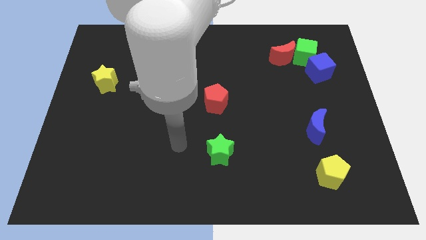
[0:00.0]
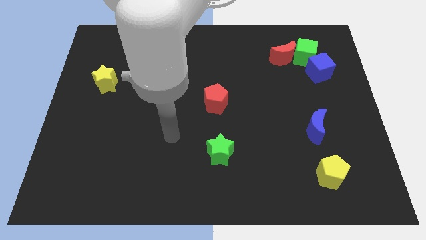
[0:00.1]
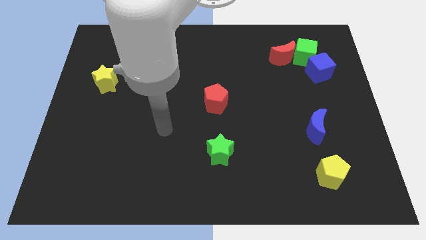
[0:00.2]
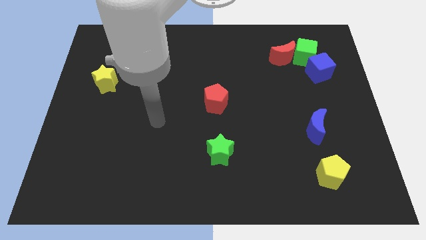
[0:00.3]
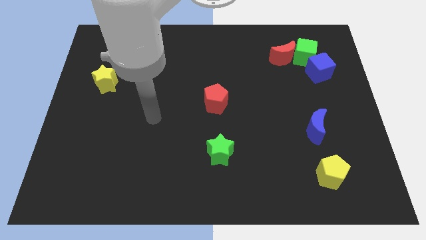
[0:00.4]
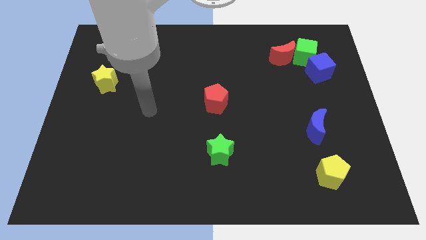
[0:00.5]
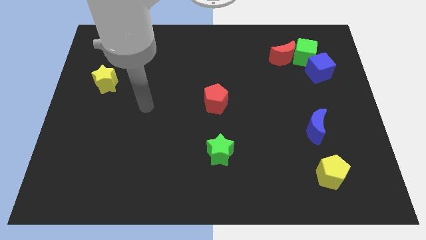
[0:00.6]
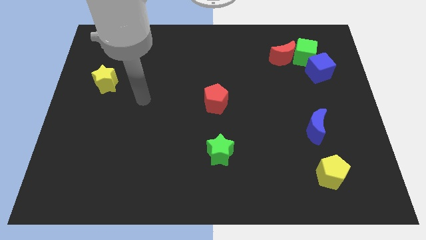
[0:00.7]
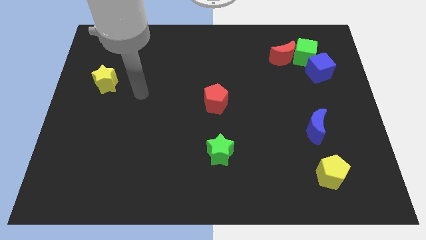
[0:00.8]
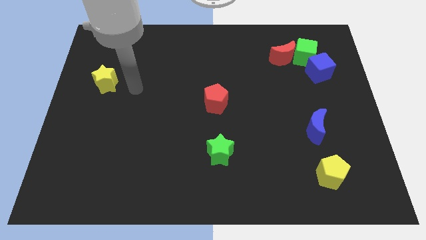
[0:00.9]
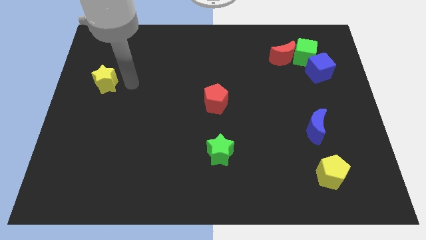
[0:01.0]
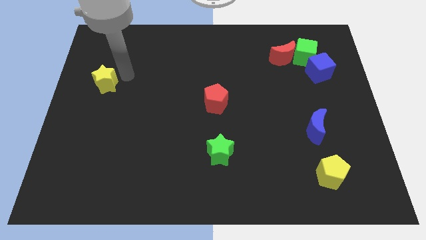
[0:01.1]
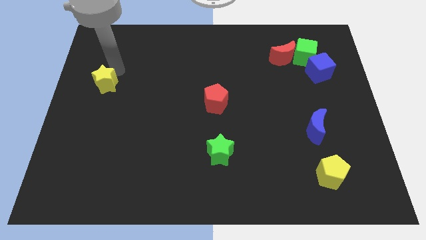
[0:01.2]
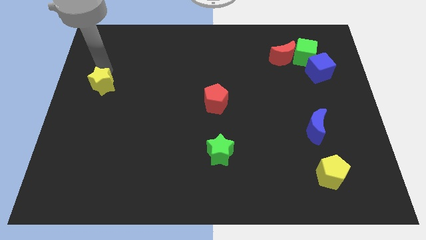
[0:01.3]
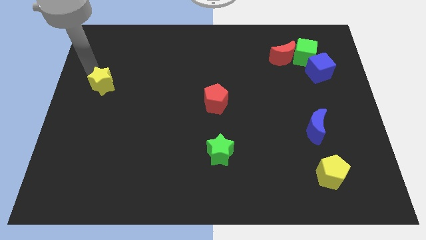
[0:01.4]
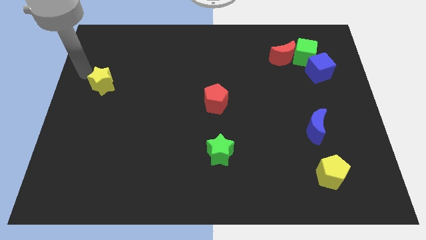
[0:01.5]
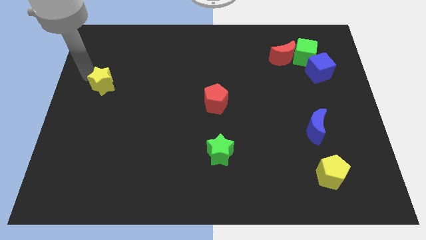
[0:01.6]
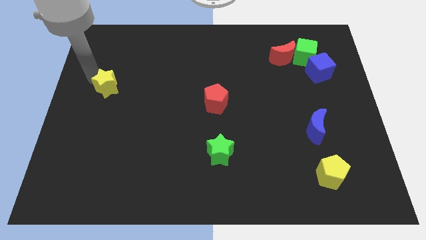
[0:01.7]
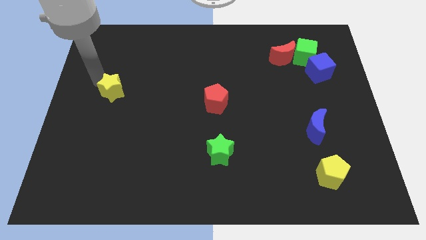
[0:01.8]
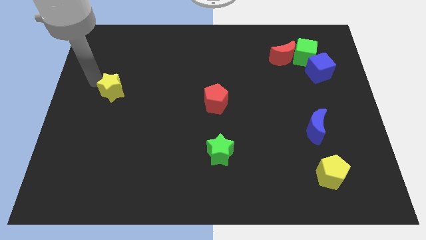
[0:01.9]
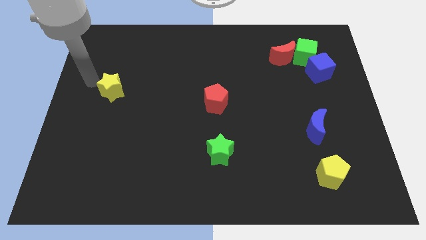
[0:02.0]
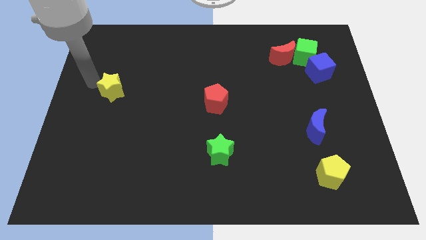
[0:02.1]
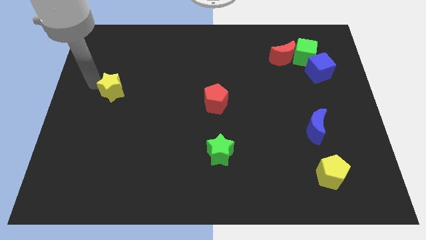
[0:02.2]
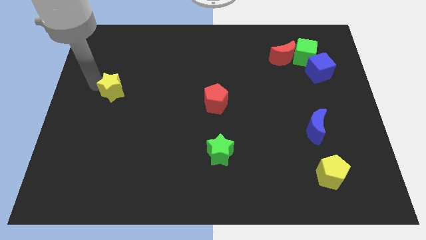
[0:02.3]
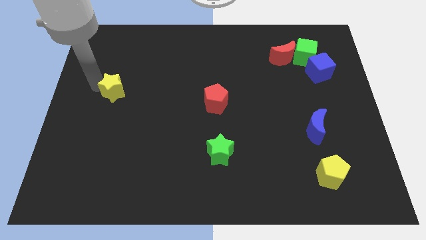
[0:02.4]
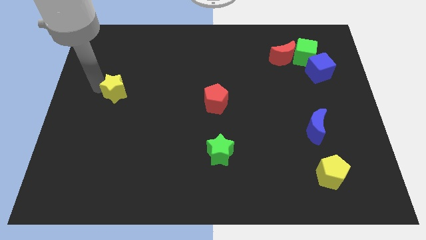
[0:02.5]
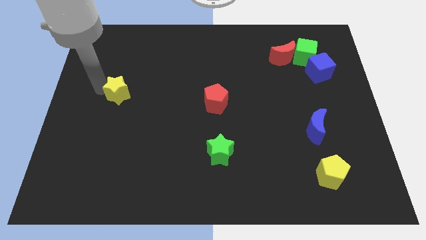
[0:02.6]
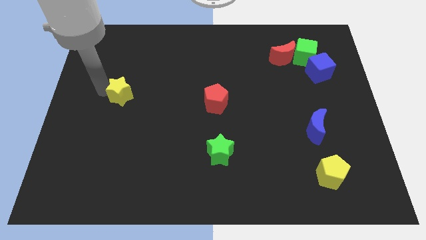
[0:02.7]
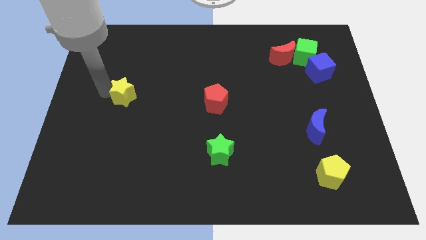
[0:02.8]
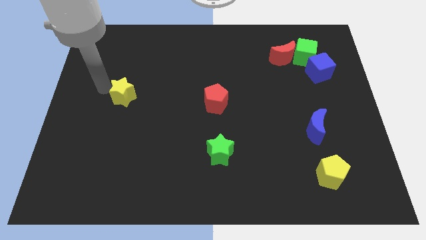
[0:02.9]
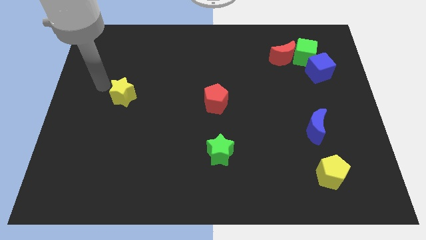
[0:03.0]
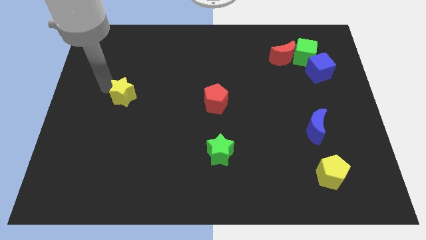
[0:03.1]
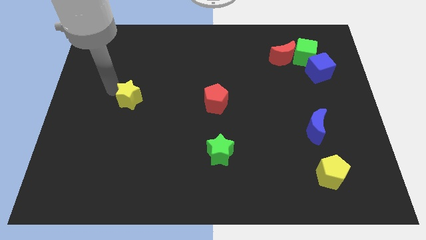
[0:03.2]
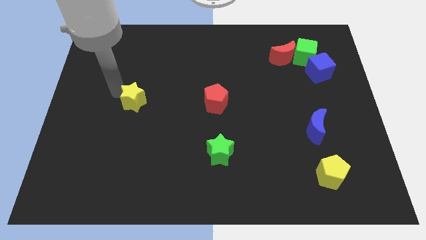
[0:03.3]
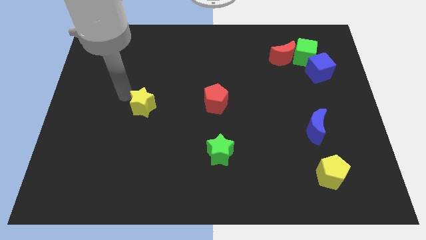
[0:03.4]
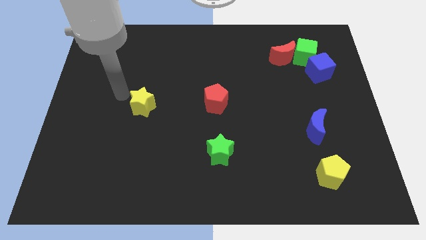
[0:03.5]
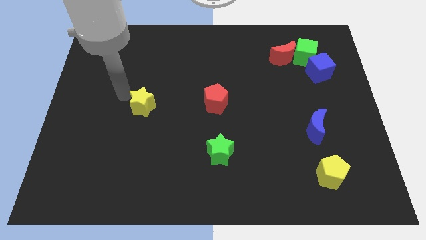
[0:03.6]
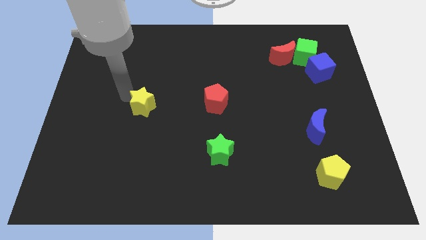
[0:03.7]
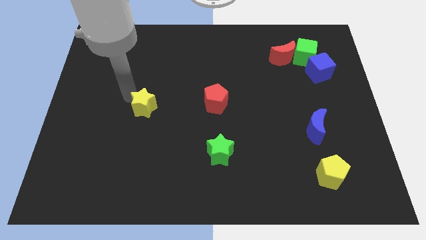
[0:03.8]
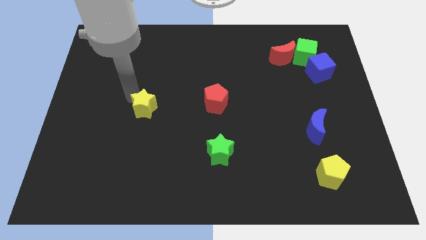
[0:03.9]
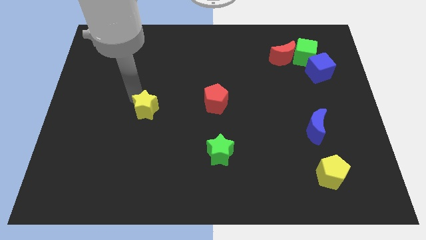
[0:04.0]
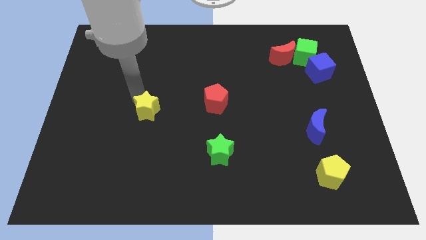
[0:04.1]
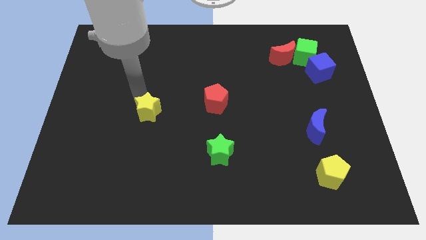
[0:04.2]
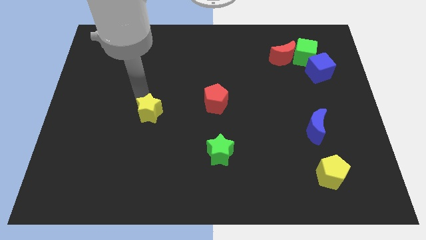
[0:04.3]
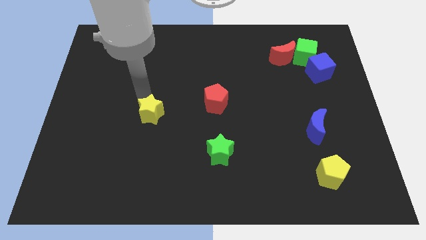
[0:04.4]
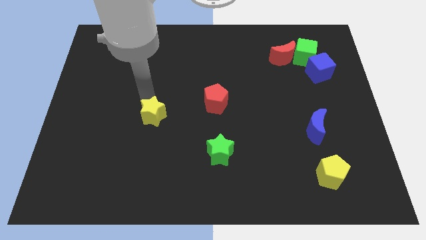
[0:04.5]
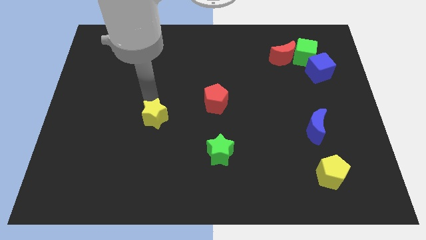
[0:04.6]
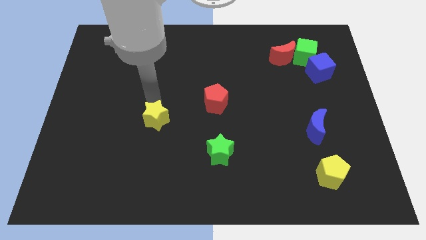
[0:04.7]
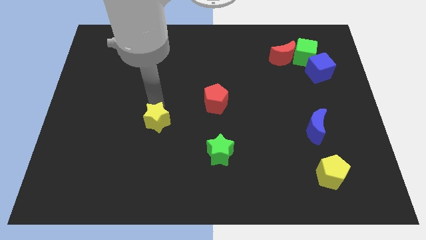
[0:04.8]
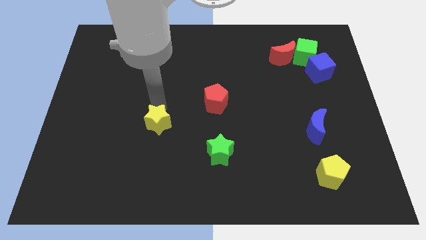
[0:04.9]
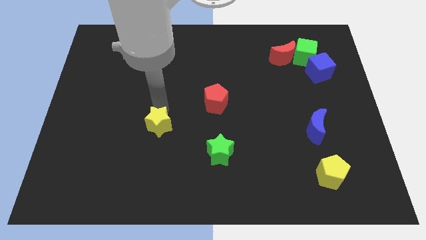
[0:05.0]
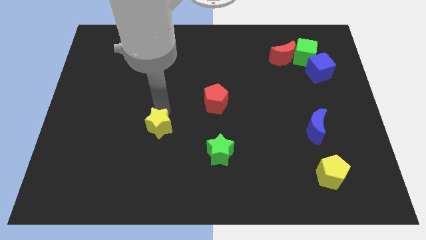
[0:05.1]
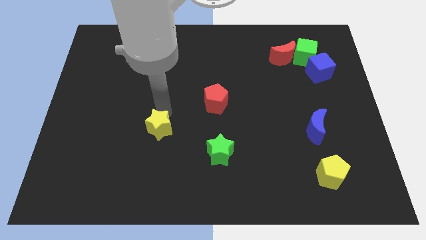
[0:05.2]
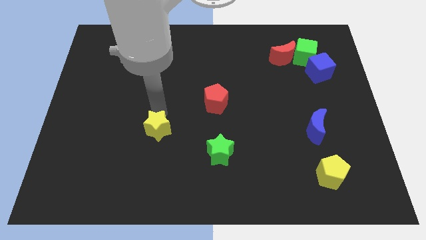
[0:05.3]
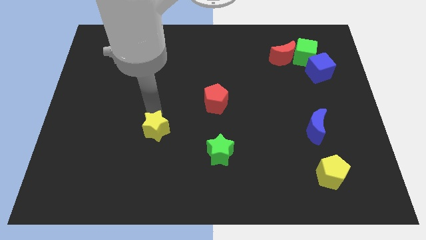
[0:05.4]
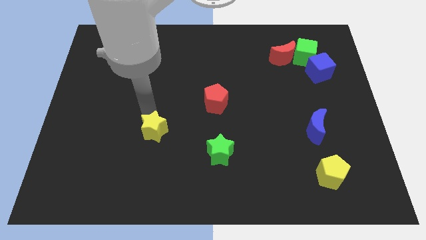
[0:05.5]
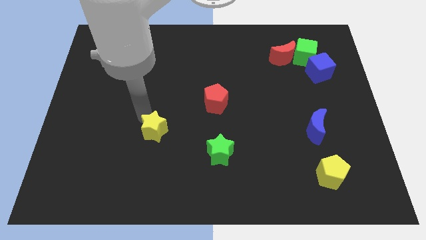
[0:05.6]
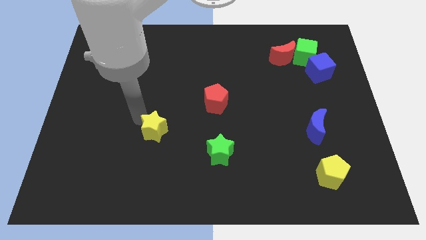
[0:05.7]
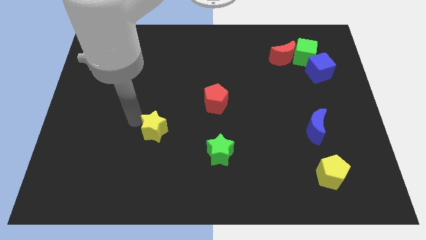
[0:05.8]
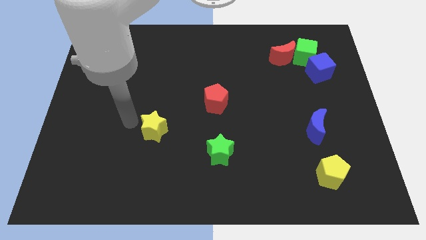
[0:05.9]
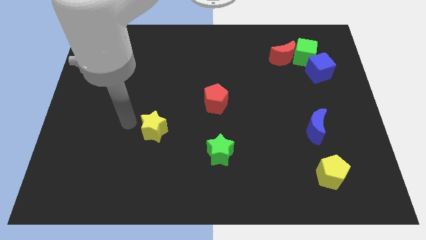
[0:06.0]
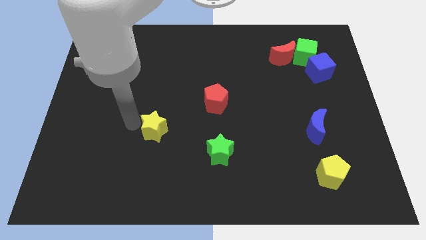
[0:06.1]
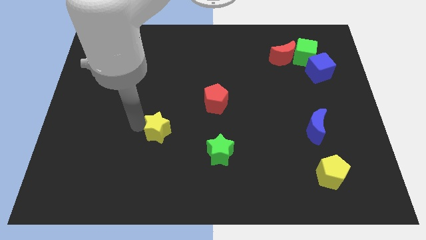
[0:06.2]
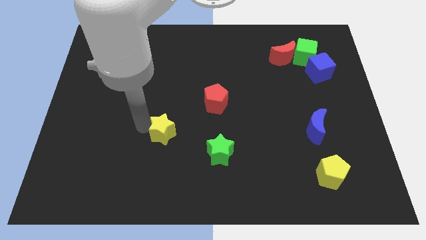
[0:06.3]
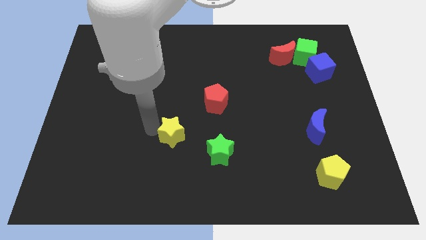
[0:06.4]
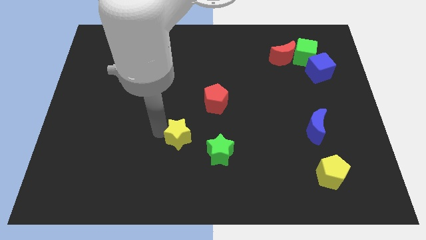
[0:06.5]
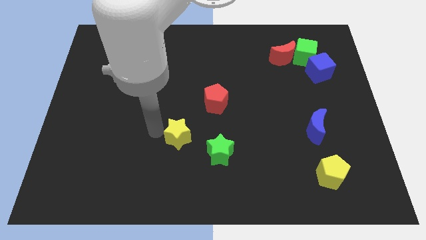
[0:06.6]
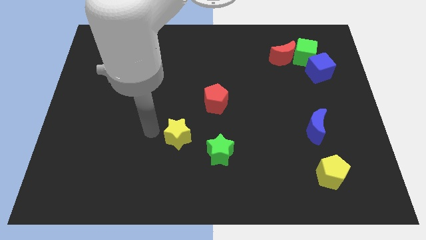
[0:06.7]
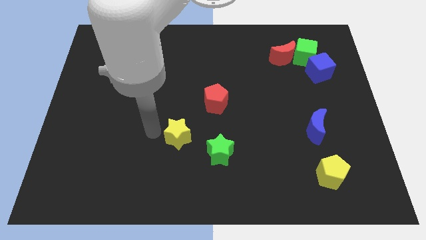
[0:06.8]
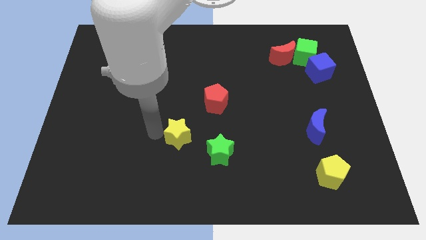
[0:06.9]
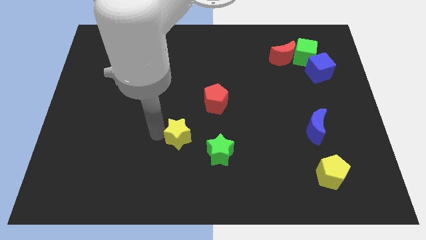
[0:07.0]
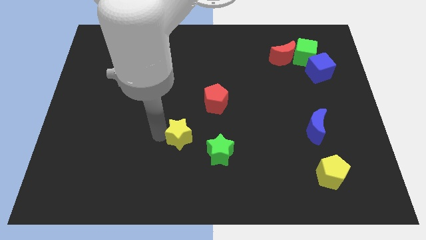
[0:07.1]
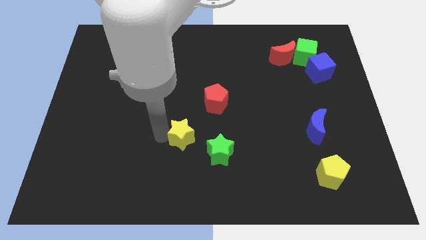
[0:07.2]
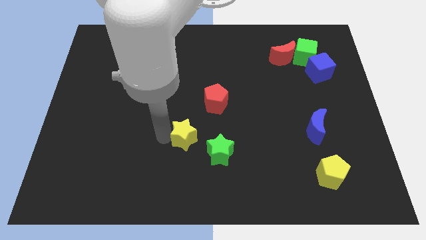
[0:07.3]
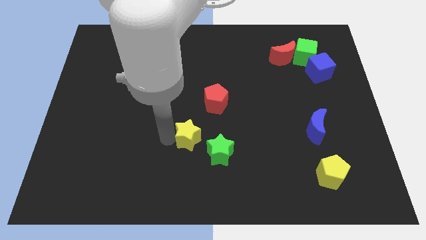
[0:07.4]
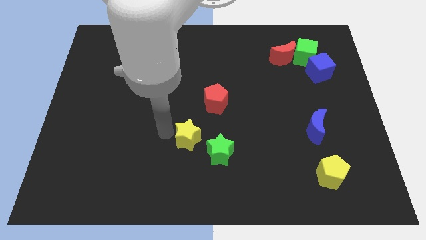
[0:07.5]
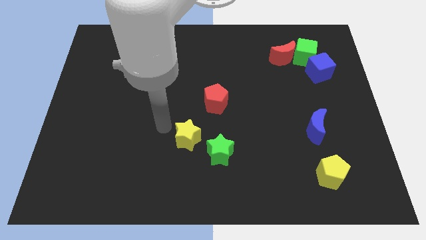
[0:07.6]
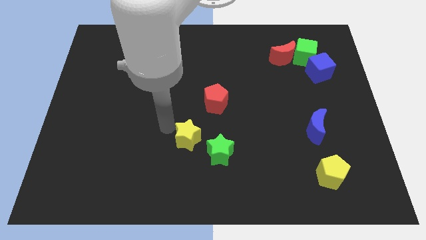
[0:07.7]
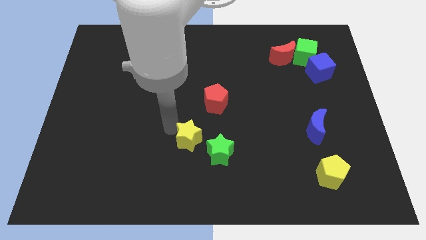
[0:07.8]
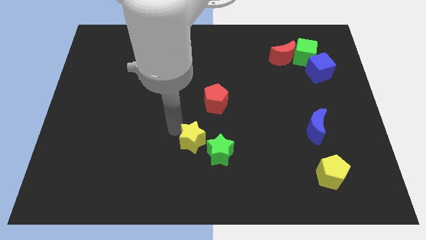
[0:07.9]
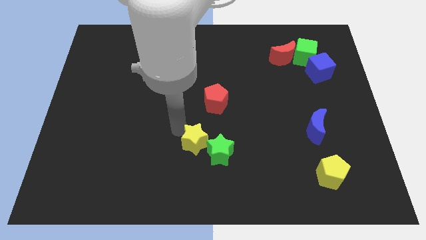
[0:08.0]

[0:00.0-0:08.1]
move the yellow star to the green star
